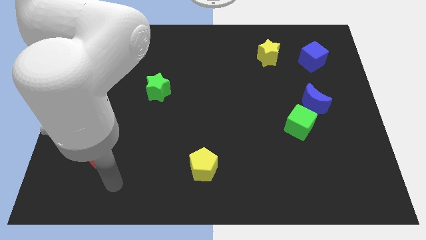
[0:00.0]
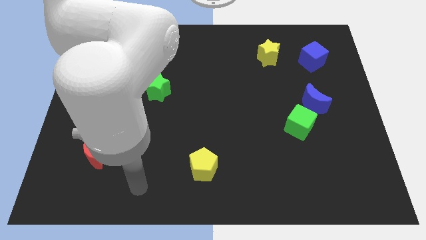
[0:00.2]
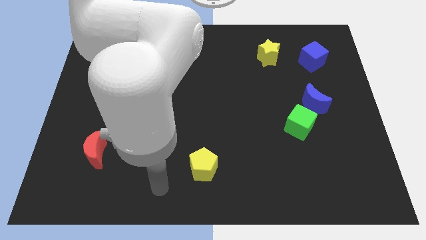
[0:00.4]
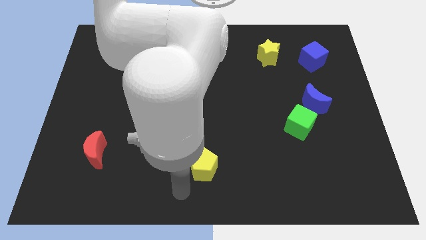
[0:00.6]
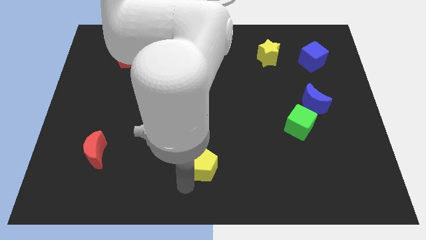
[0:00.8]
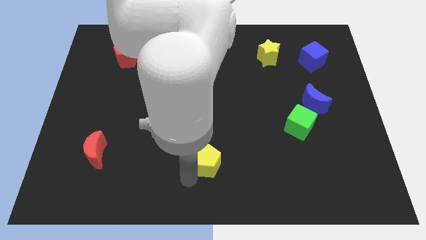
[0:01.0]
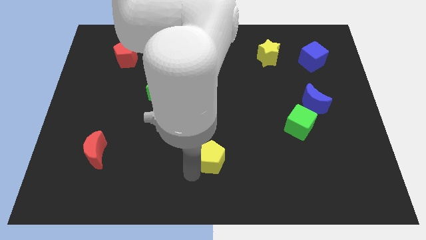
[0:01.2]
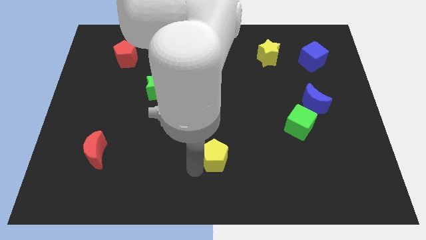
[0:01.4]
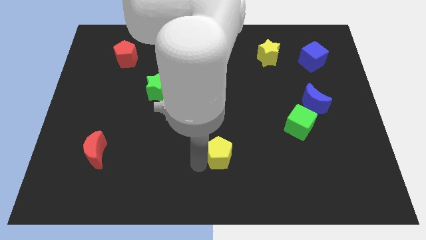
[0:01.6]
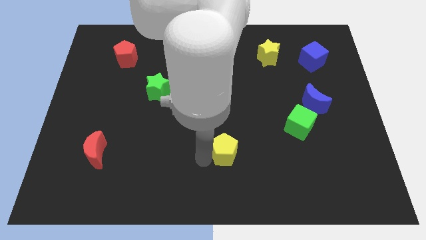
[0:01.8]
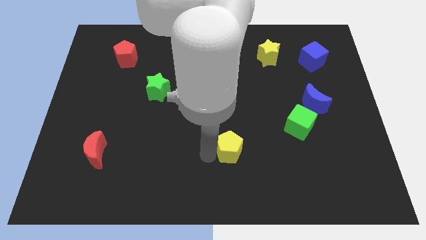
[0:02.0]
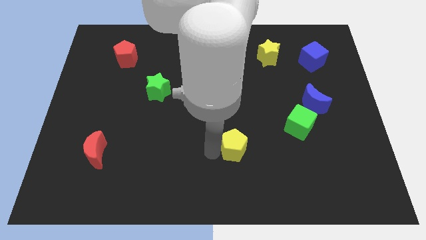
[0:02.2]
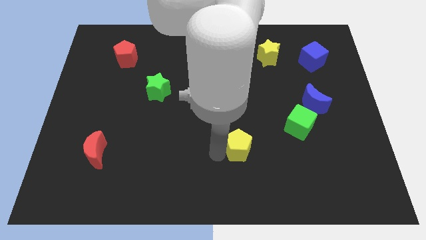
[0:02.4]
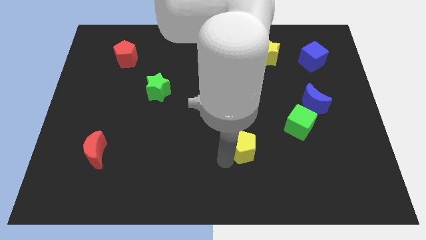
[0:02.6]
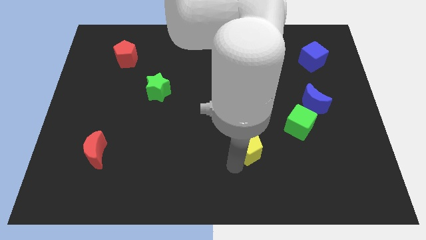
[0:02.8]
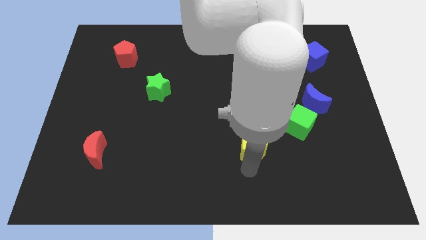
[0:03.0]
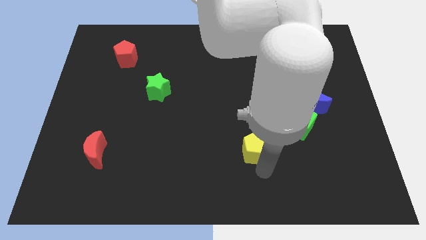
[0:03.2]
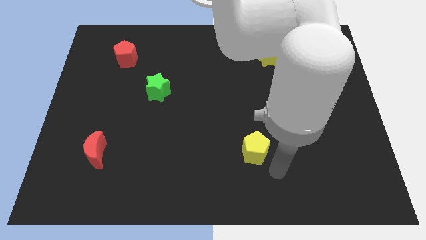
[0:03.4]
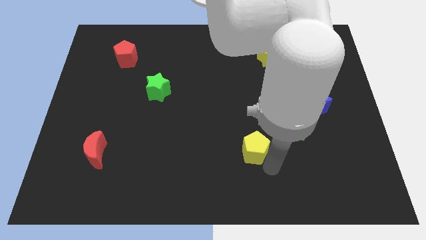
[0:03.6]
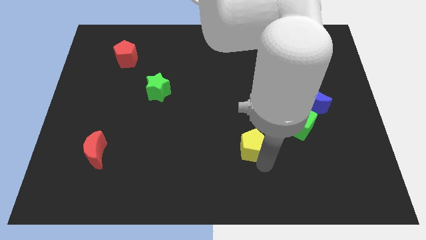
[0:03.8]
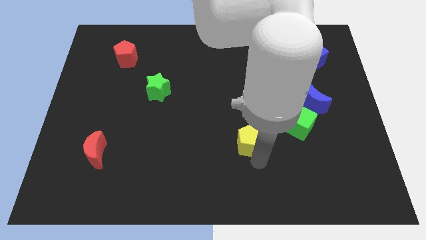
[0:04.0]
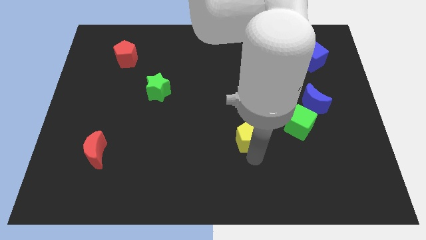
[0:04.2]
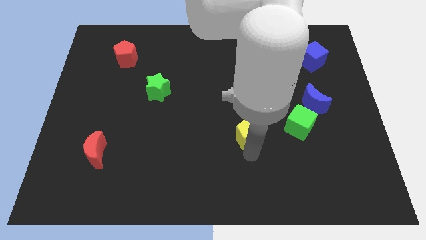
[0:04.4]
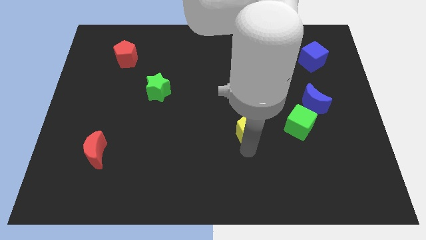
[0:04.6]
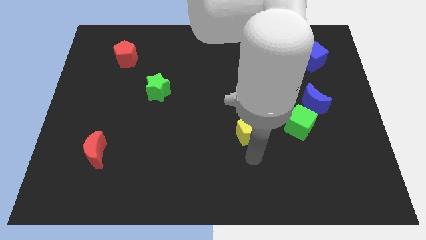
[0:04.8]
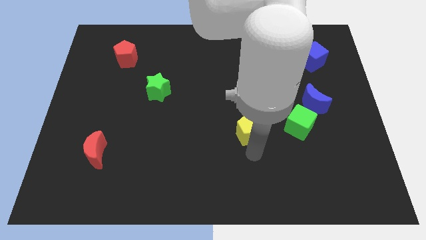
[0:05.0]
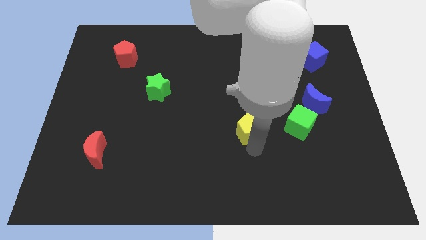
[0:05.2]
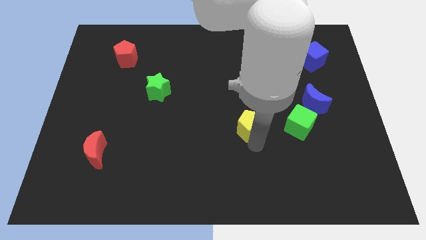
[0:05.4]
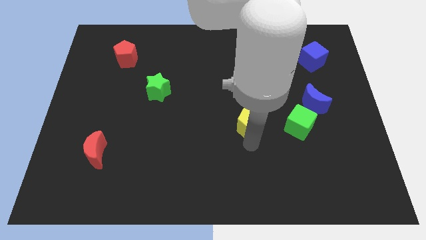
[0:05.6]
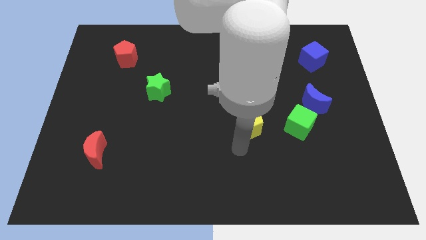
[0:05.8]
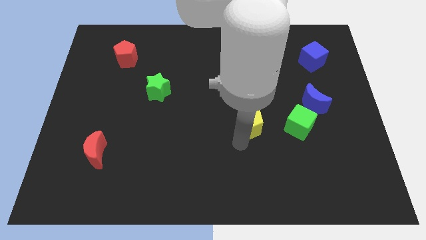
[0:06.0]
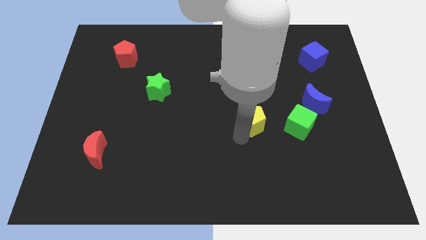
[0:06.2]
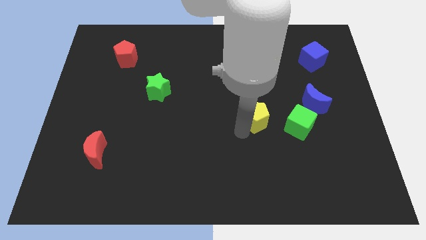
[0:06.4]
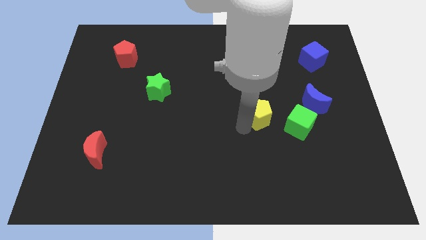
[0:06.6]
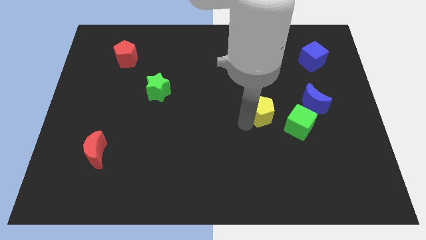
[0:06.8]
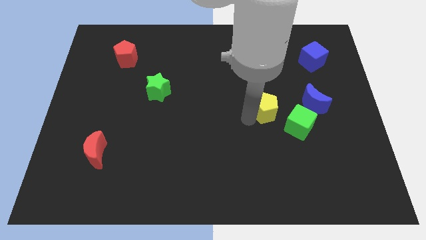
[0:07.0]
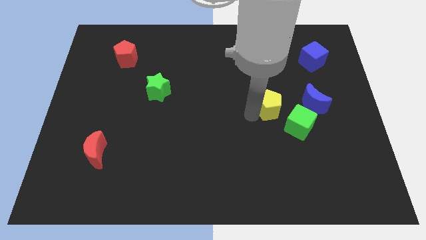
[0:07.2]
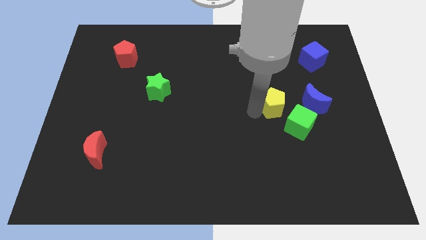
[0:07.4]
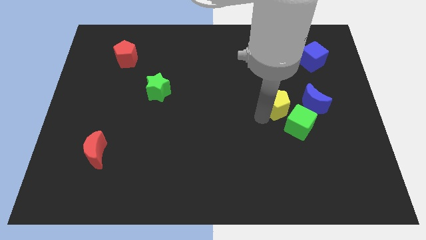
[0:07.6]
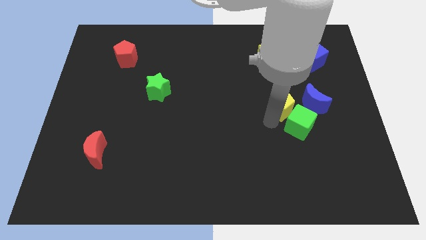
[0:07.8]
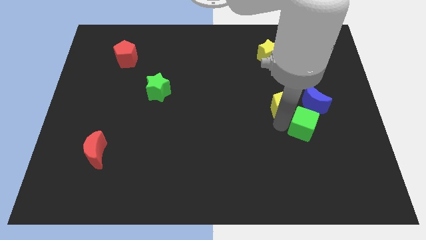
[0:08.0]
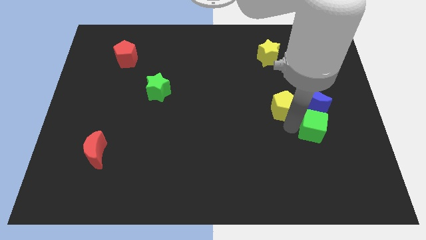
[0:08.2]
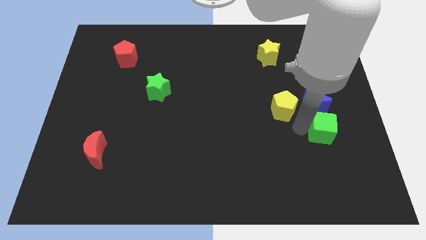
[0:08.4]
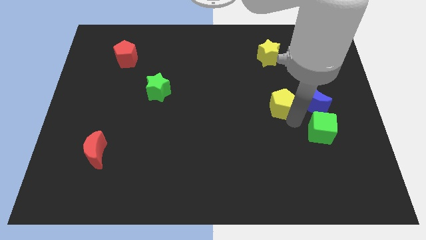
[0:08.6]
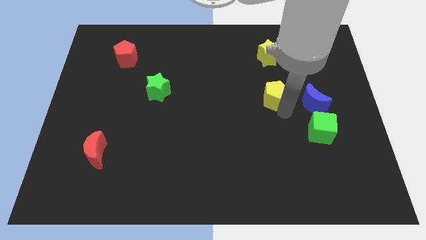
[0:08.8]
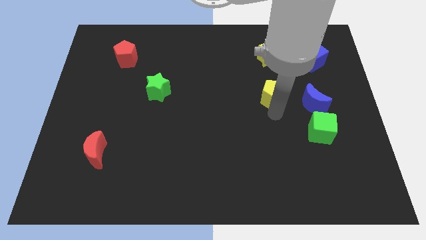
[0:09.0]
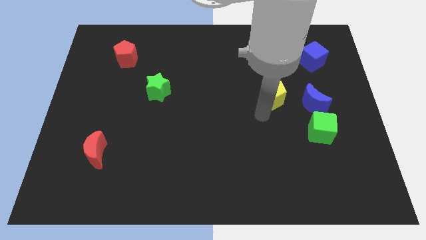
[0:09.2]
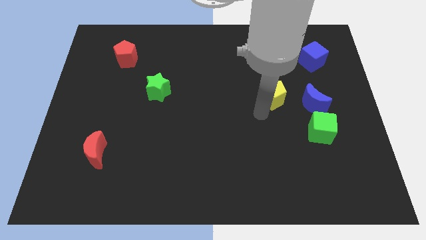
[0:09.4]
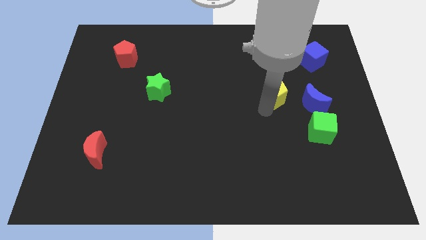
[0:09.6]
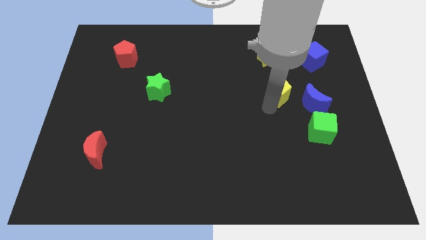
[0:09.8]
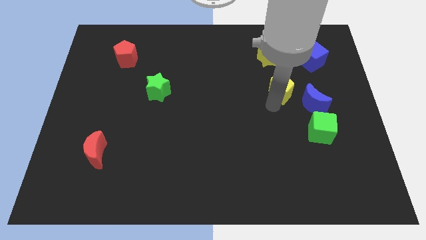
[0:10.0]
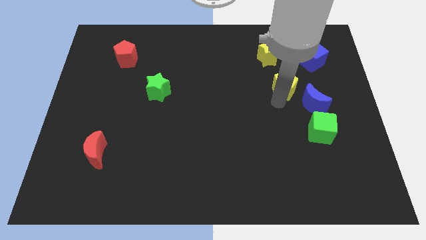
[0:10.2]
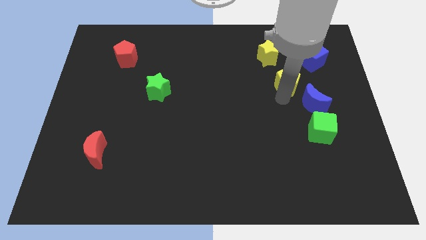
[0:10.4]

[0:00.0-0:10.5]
move the yellow pentagon to the bottom right of the yellow star

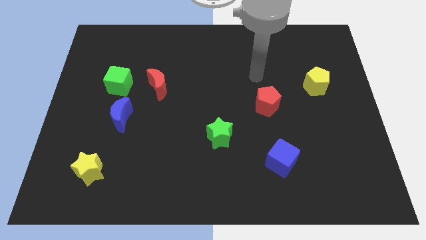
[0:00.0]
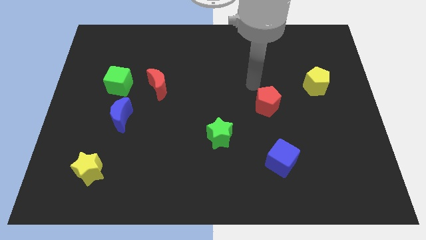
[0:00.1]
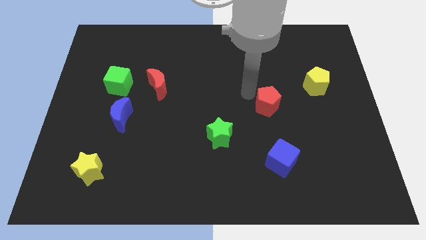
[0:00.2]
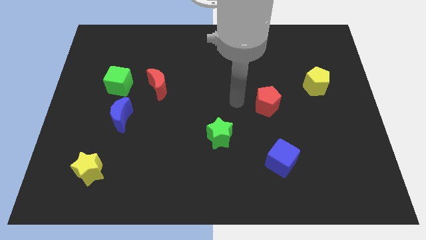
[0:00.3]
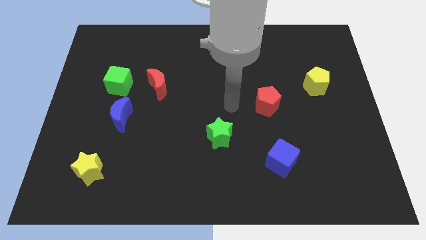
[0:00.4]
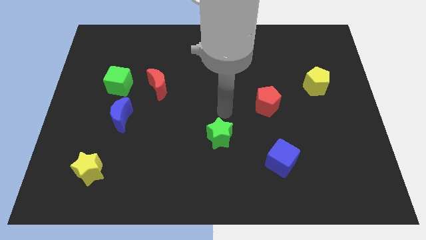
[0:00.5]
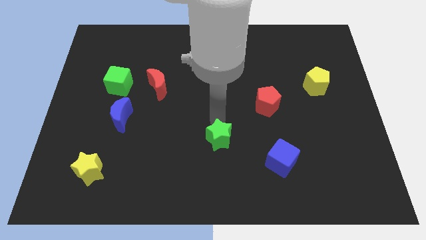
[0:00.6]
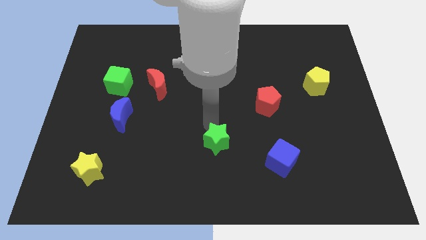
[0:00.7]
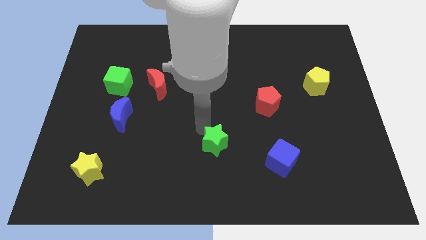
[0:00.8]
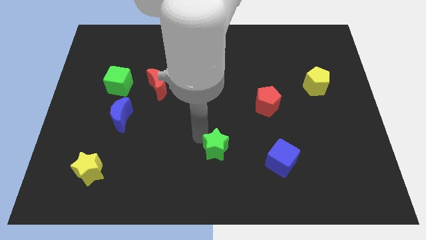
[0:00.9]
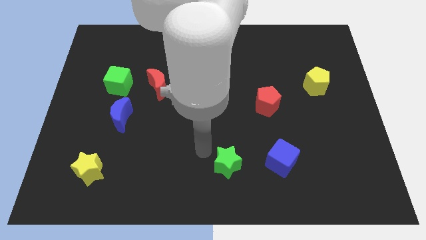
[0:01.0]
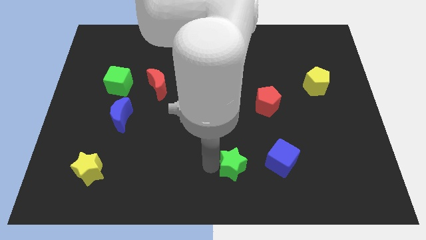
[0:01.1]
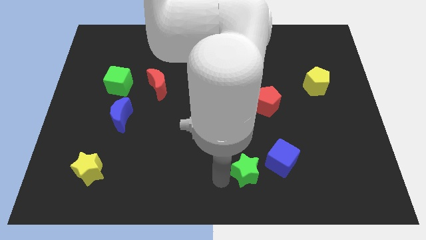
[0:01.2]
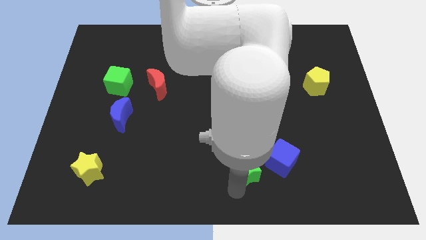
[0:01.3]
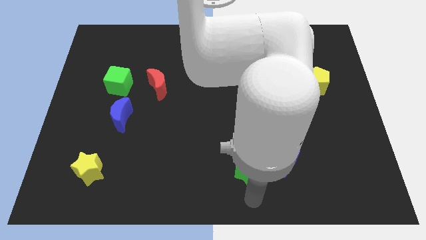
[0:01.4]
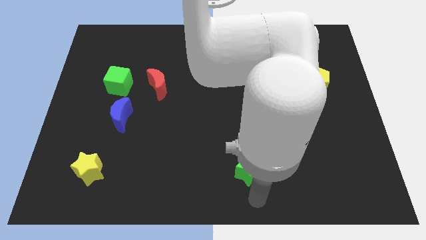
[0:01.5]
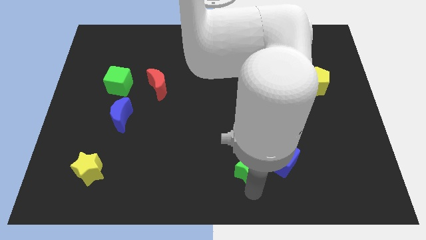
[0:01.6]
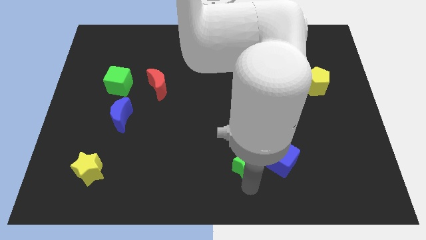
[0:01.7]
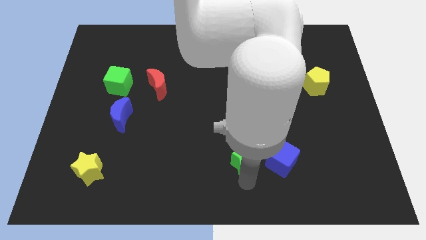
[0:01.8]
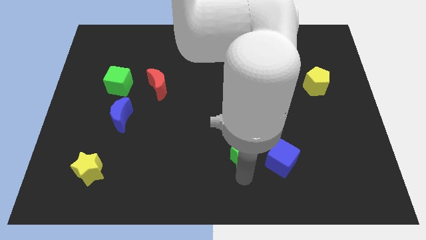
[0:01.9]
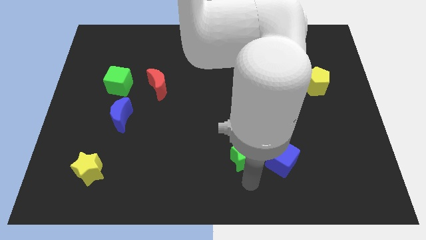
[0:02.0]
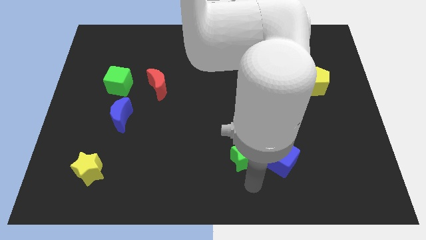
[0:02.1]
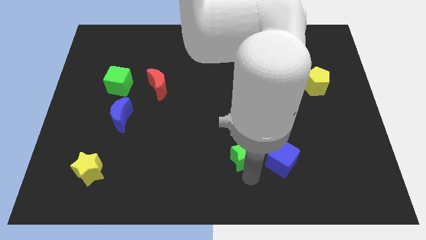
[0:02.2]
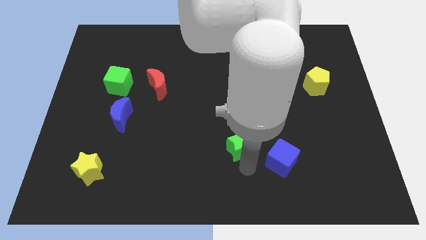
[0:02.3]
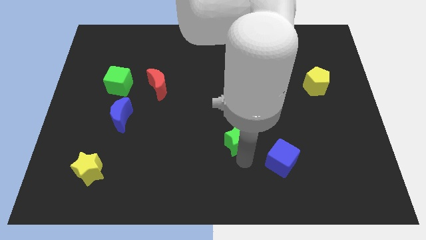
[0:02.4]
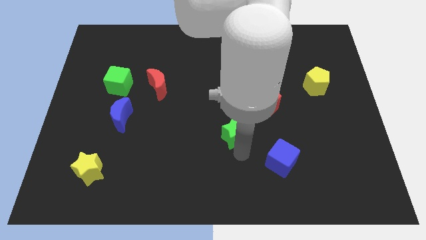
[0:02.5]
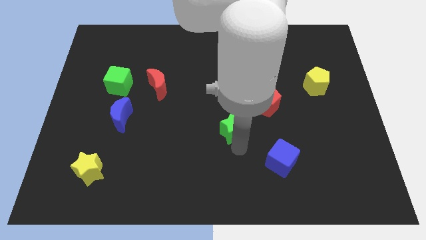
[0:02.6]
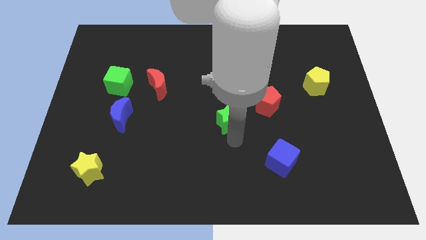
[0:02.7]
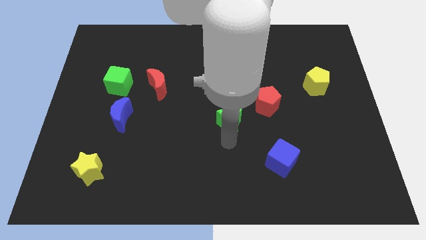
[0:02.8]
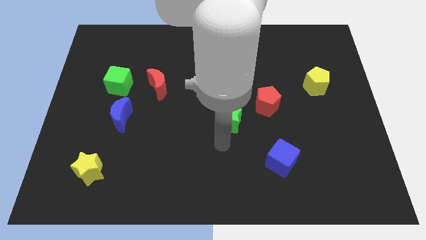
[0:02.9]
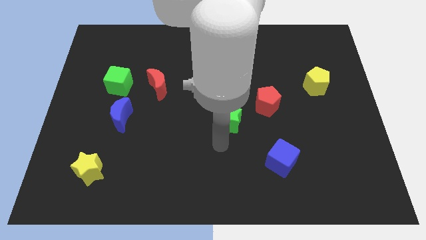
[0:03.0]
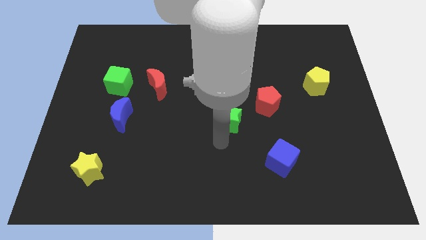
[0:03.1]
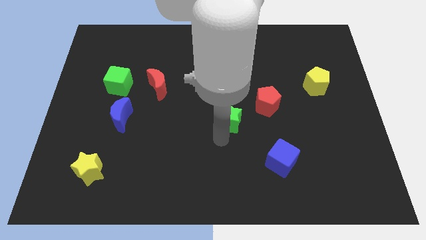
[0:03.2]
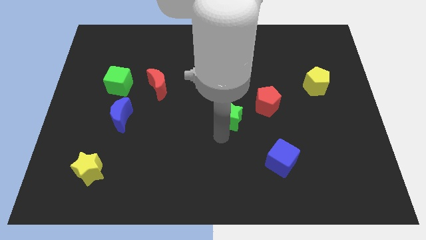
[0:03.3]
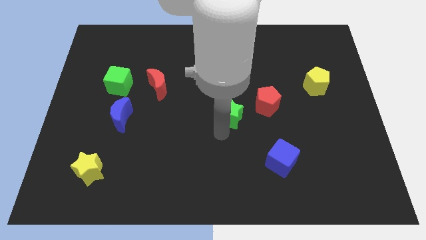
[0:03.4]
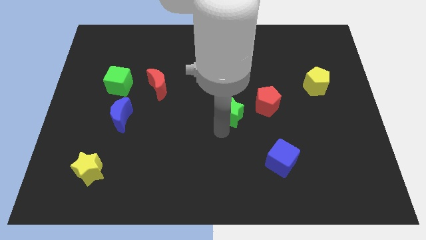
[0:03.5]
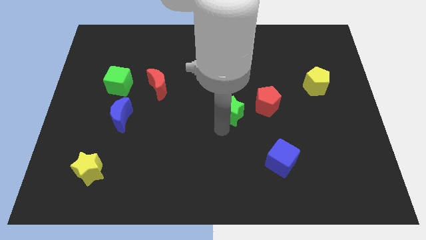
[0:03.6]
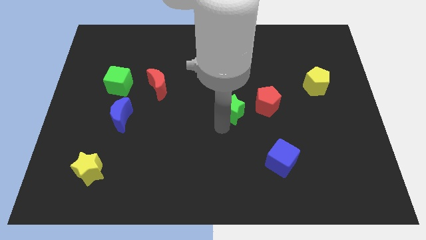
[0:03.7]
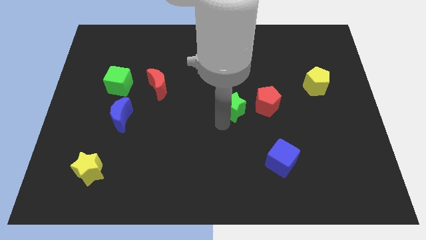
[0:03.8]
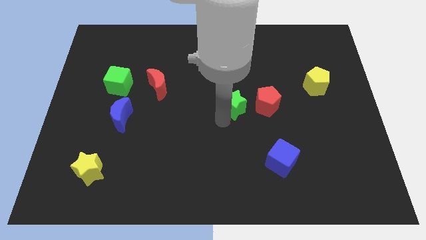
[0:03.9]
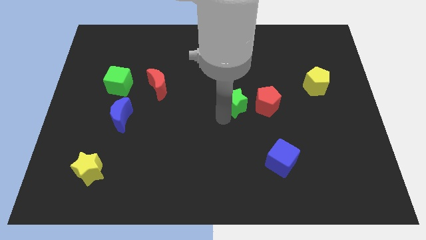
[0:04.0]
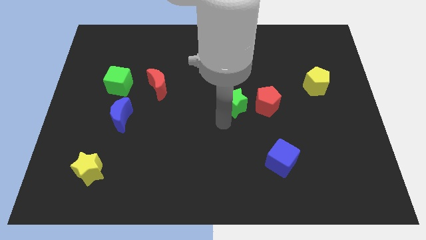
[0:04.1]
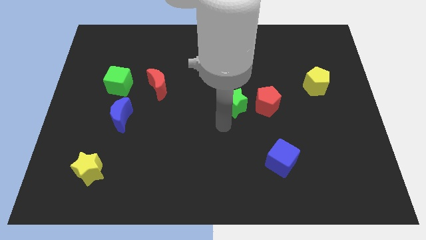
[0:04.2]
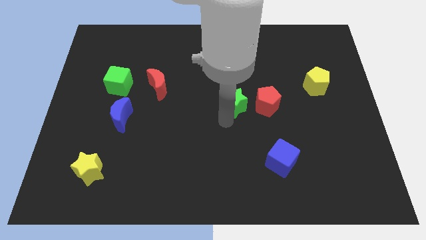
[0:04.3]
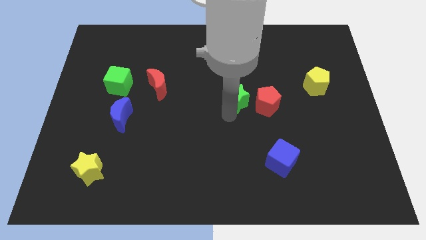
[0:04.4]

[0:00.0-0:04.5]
slide the green star to the top left side of the red pentagon
